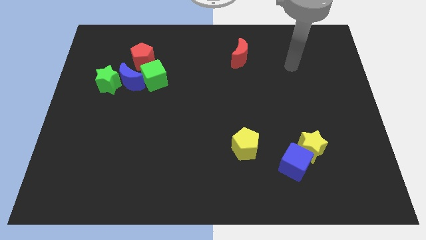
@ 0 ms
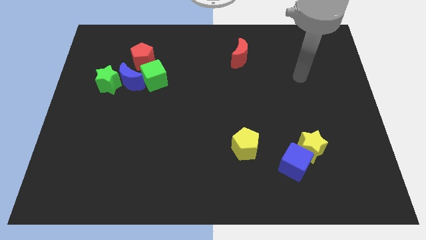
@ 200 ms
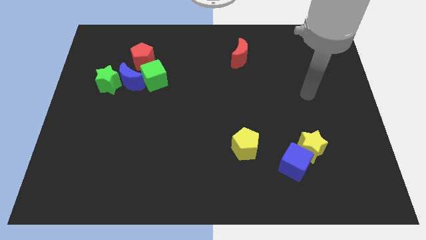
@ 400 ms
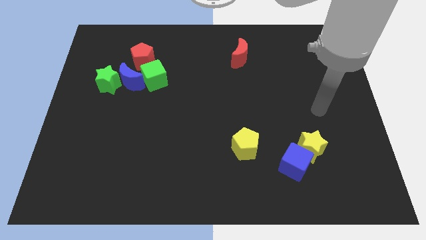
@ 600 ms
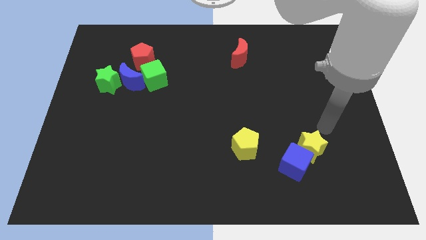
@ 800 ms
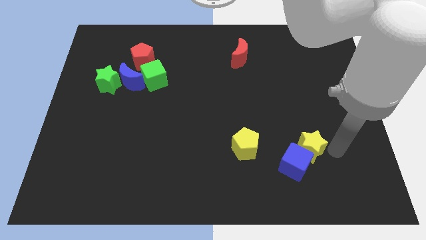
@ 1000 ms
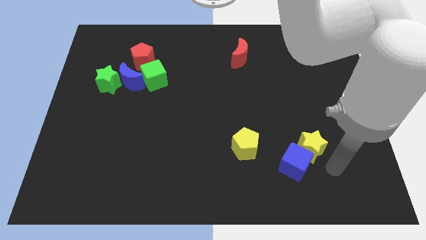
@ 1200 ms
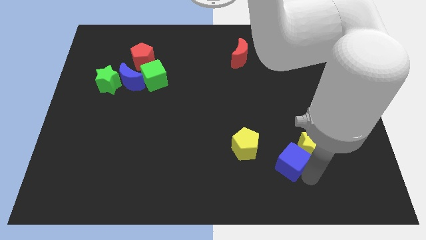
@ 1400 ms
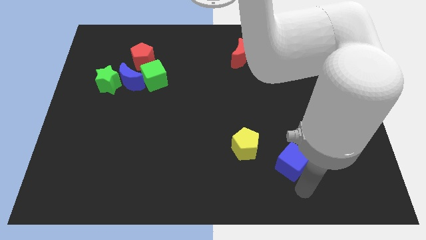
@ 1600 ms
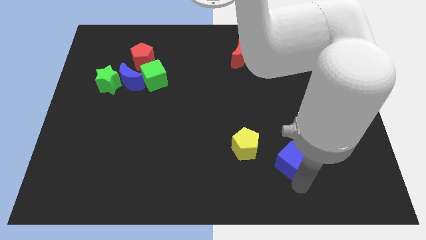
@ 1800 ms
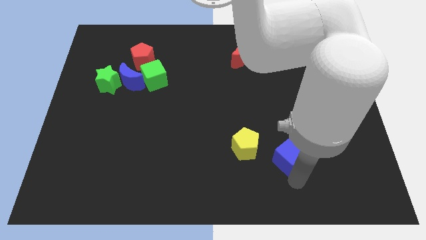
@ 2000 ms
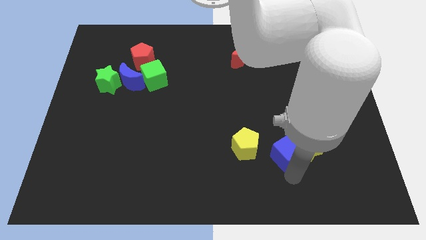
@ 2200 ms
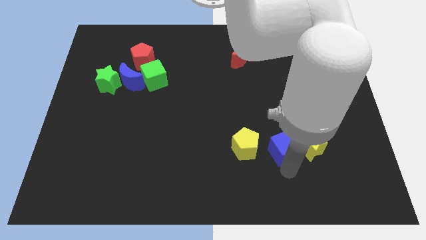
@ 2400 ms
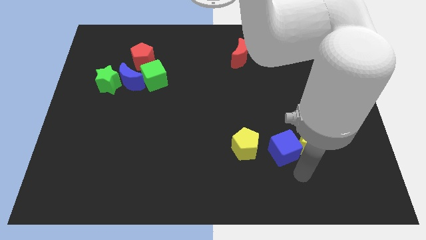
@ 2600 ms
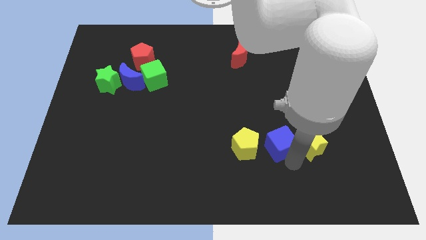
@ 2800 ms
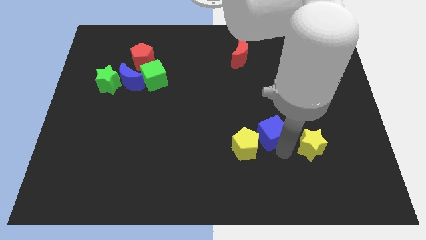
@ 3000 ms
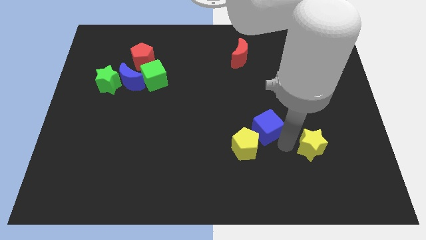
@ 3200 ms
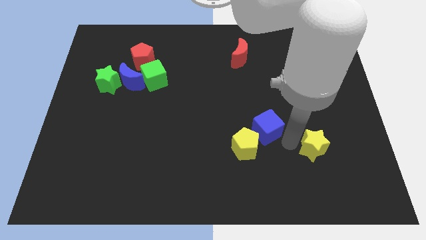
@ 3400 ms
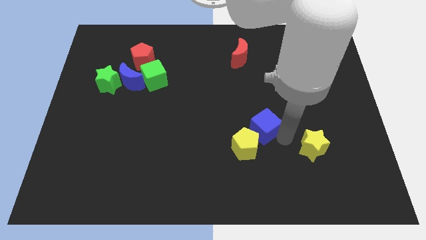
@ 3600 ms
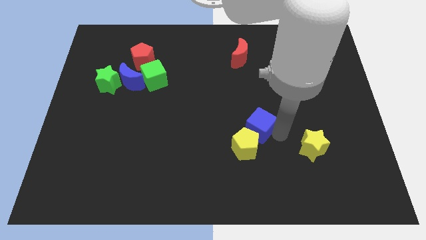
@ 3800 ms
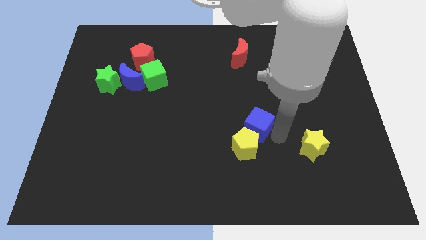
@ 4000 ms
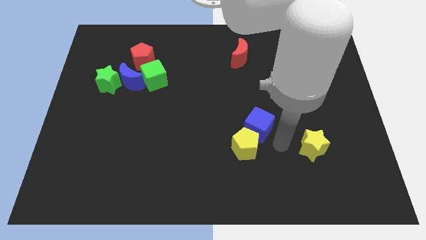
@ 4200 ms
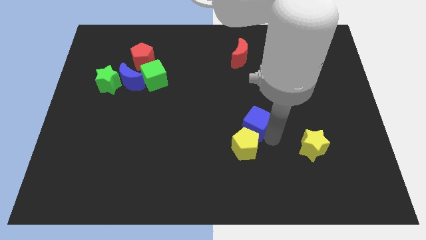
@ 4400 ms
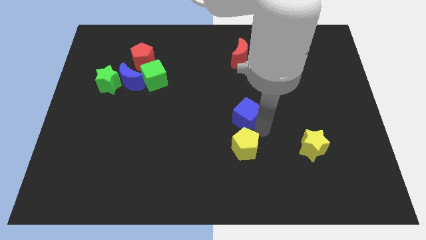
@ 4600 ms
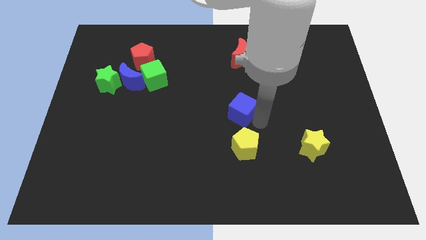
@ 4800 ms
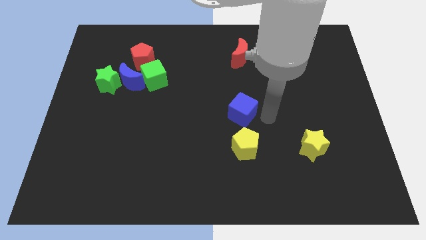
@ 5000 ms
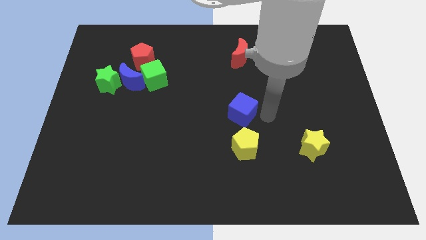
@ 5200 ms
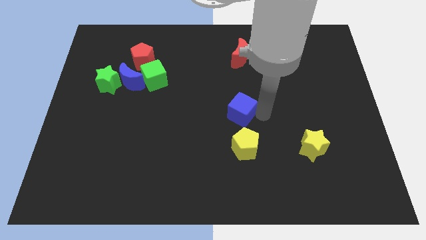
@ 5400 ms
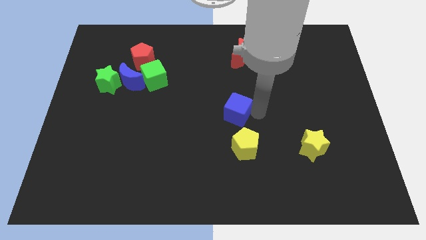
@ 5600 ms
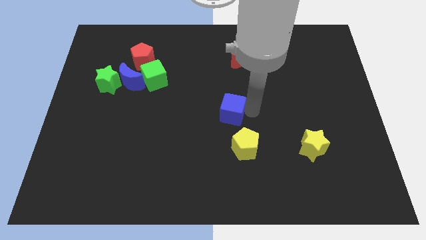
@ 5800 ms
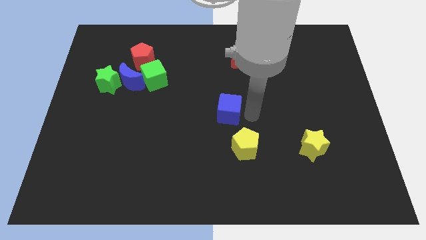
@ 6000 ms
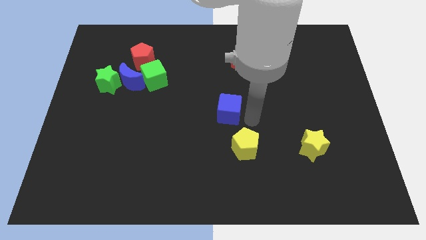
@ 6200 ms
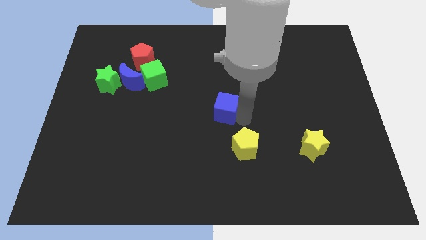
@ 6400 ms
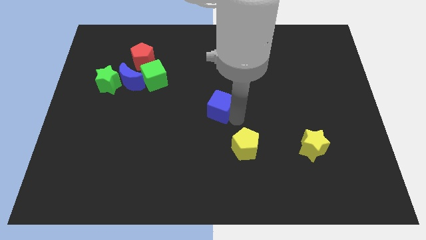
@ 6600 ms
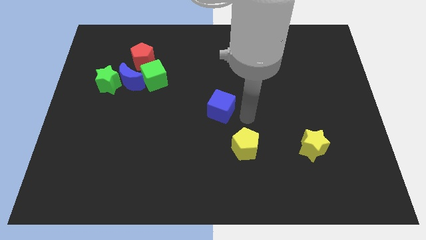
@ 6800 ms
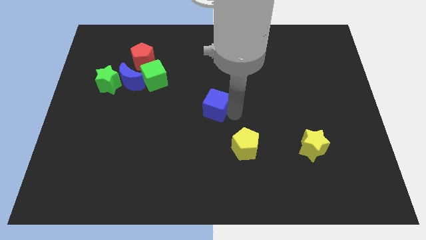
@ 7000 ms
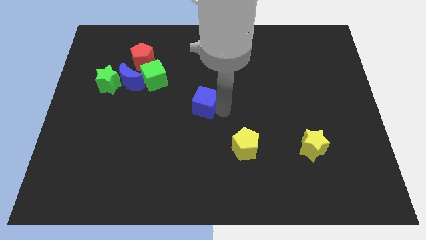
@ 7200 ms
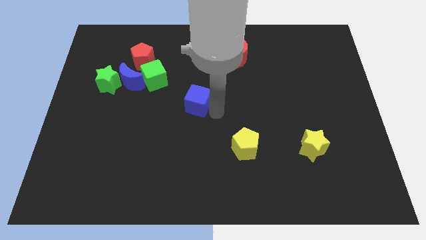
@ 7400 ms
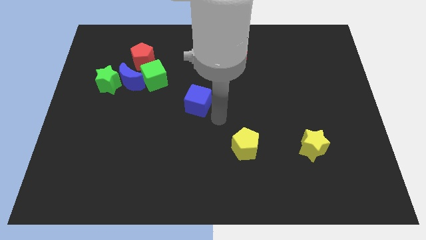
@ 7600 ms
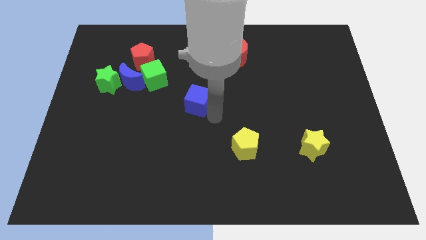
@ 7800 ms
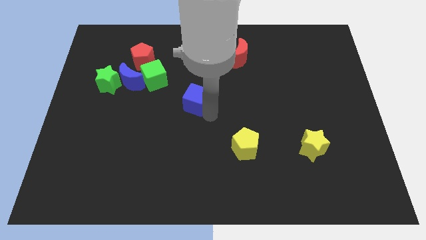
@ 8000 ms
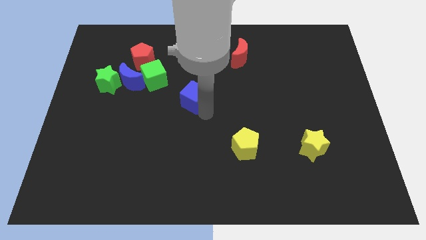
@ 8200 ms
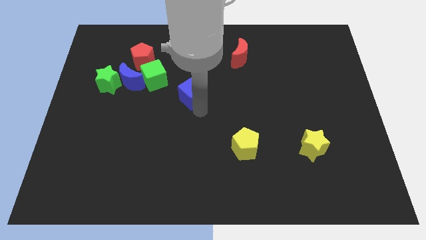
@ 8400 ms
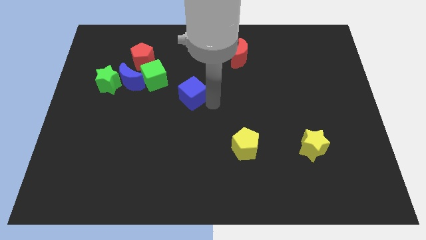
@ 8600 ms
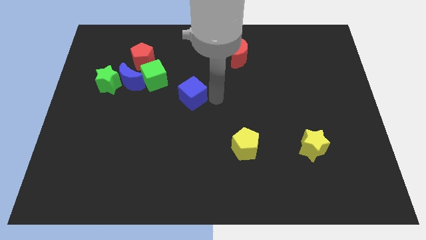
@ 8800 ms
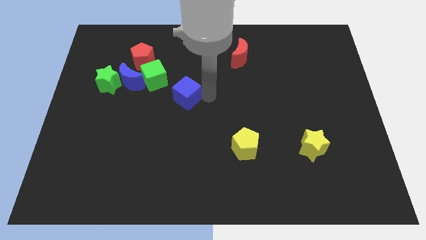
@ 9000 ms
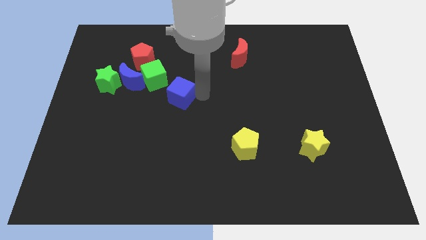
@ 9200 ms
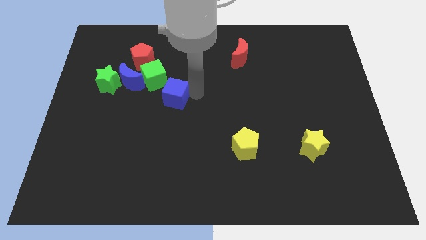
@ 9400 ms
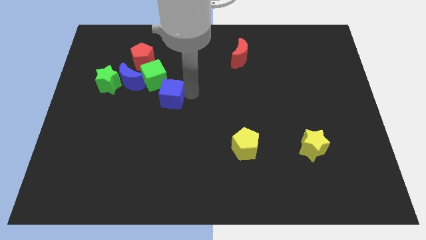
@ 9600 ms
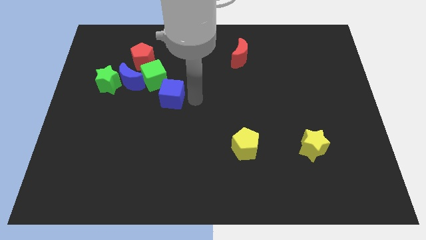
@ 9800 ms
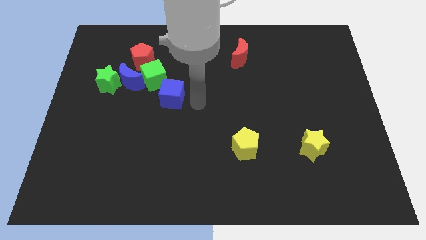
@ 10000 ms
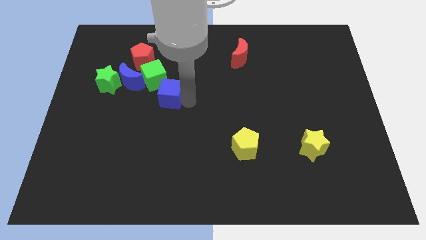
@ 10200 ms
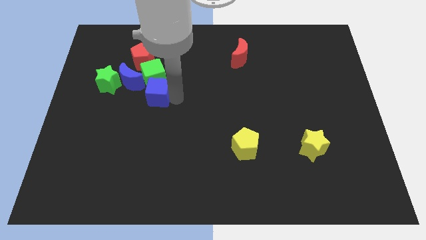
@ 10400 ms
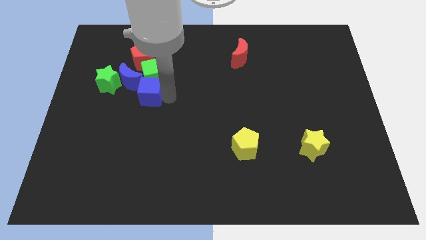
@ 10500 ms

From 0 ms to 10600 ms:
put the blue cube below the red pentagon

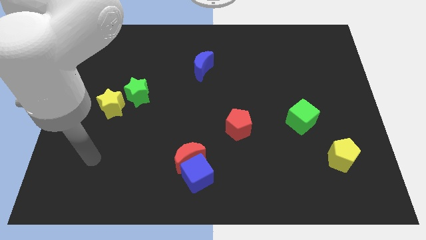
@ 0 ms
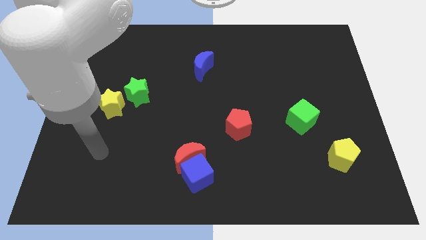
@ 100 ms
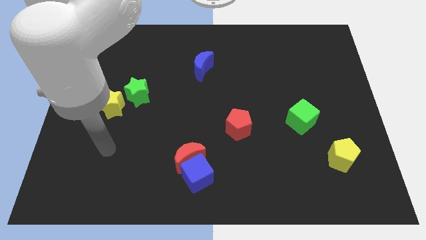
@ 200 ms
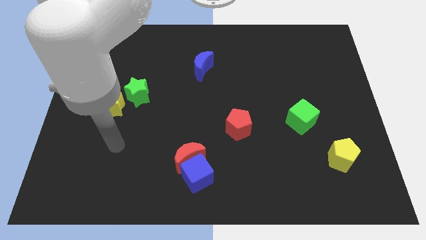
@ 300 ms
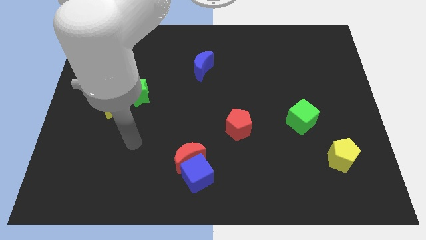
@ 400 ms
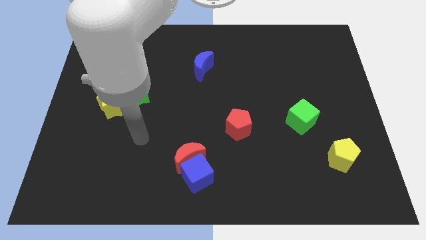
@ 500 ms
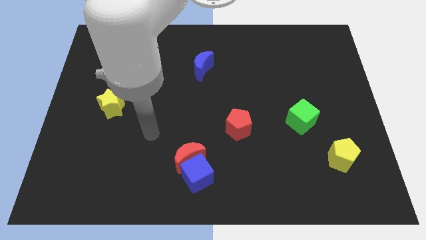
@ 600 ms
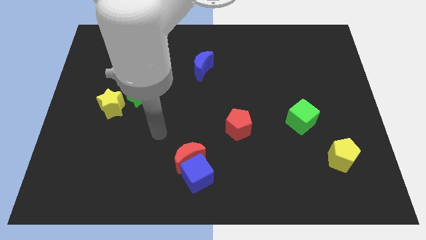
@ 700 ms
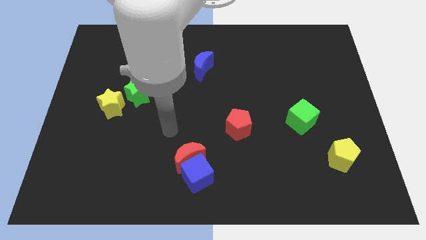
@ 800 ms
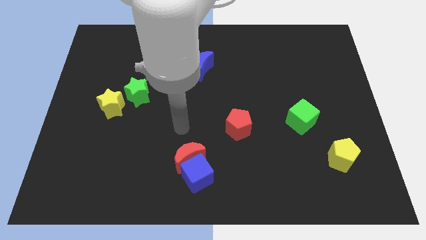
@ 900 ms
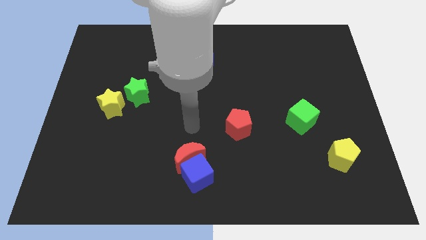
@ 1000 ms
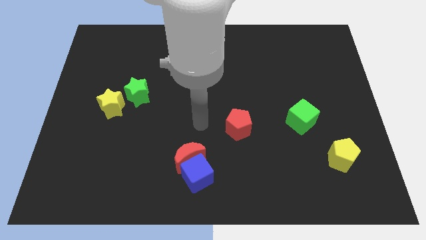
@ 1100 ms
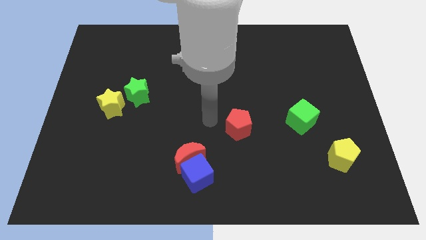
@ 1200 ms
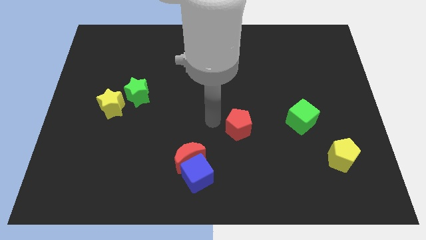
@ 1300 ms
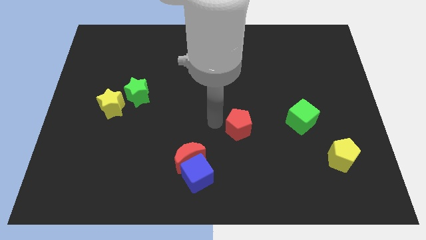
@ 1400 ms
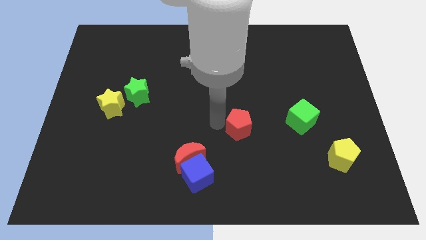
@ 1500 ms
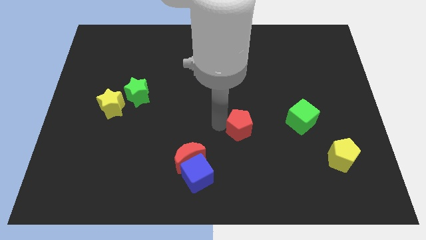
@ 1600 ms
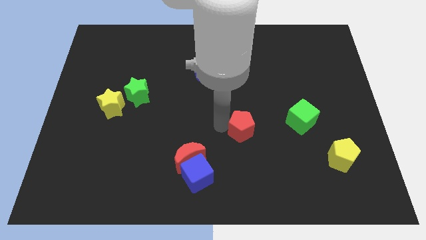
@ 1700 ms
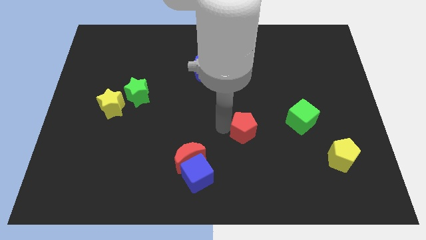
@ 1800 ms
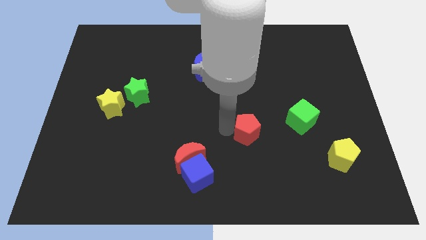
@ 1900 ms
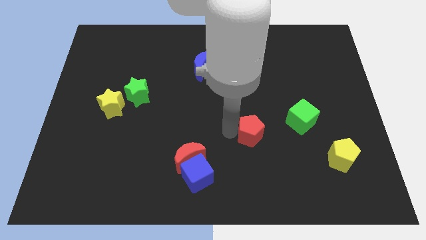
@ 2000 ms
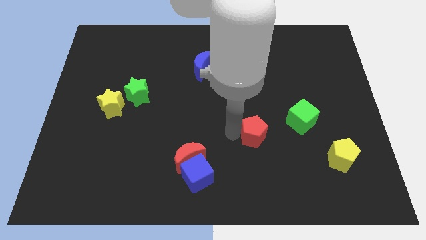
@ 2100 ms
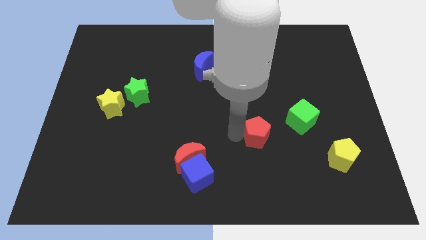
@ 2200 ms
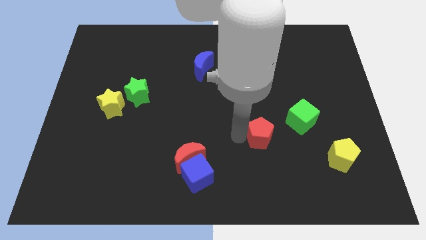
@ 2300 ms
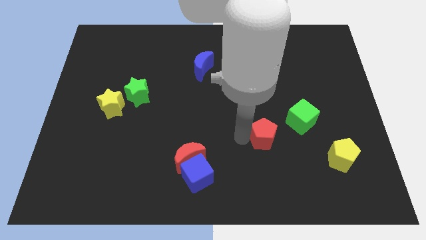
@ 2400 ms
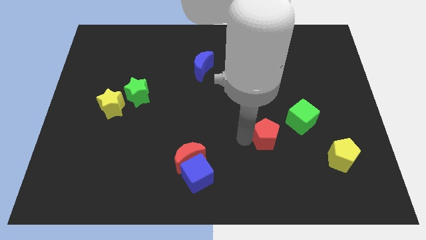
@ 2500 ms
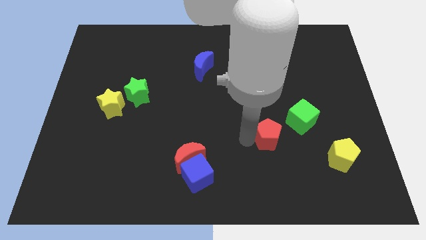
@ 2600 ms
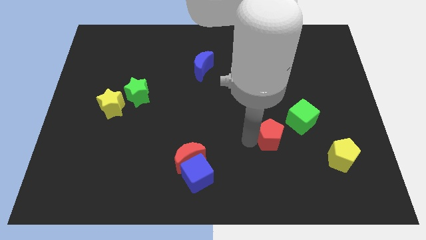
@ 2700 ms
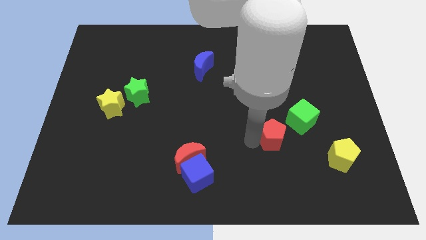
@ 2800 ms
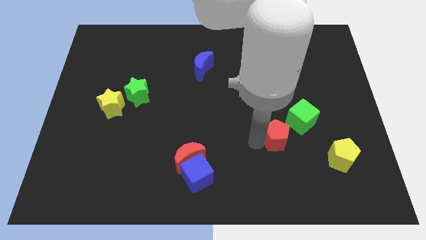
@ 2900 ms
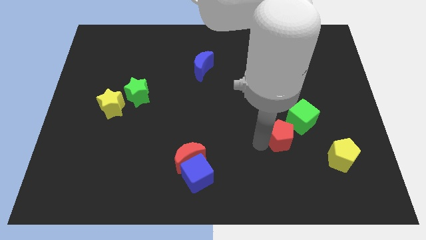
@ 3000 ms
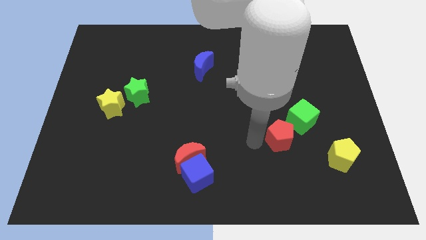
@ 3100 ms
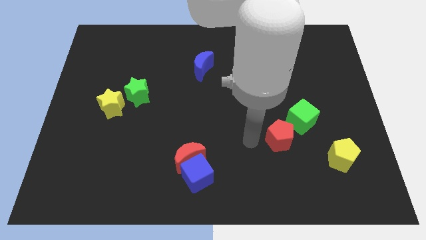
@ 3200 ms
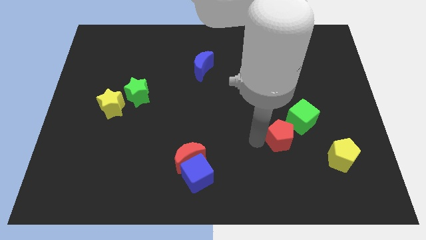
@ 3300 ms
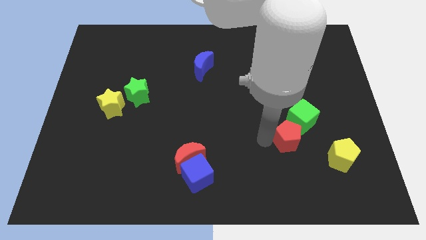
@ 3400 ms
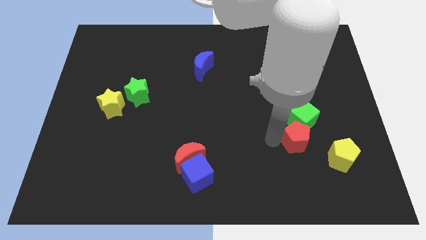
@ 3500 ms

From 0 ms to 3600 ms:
put the red pentagon to the top left side of the yellow pentagon
